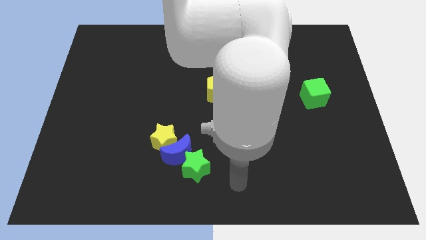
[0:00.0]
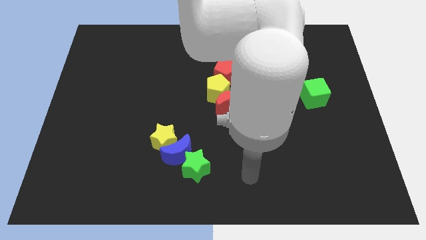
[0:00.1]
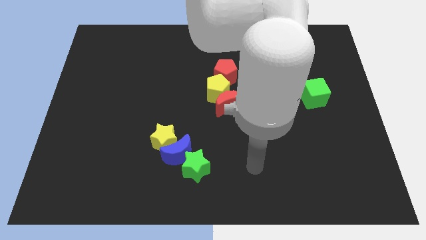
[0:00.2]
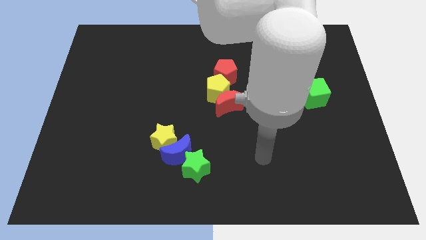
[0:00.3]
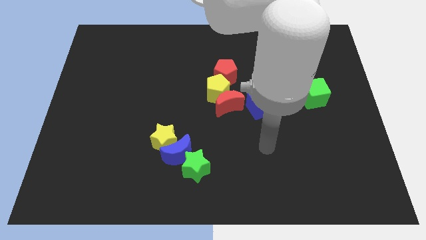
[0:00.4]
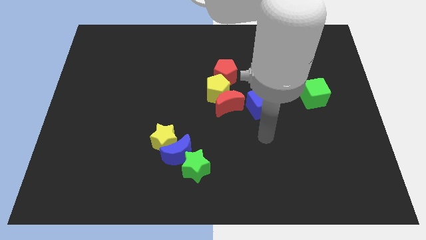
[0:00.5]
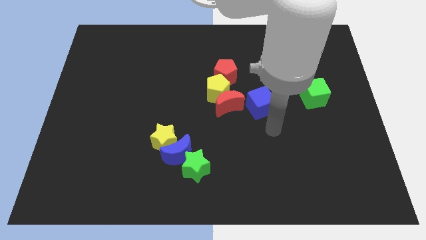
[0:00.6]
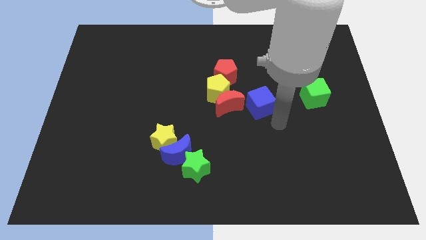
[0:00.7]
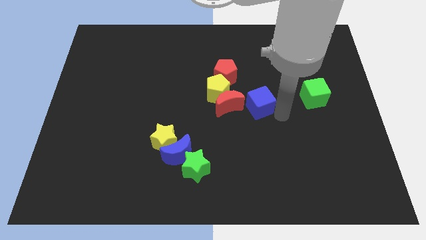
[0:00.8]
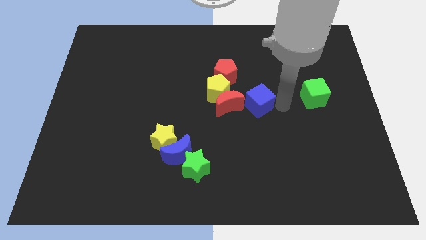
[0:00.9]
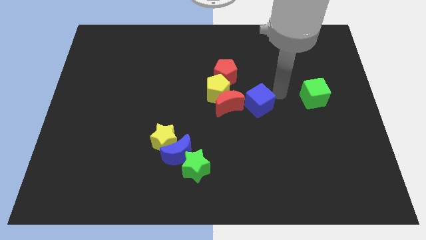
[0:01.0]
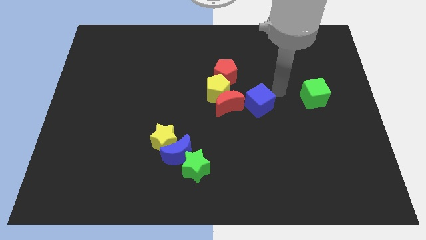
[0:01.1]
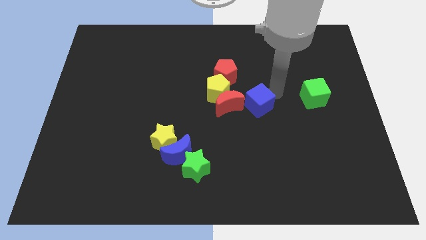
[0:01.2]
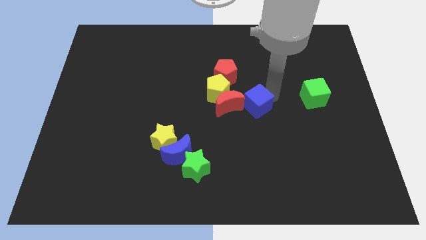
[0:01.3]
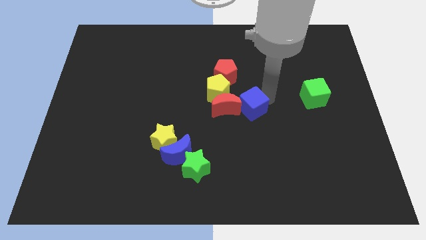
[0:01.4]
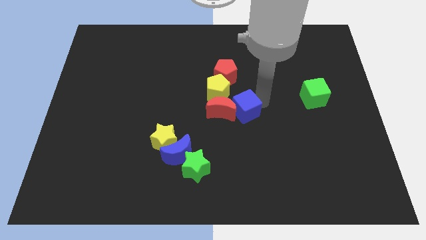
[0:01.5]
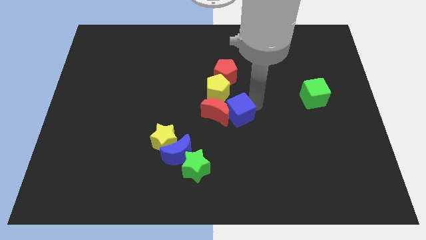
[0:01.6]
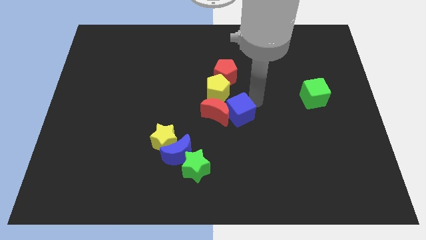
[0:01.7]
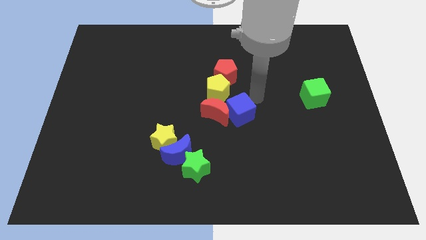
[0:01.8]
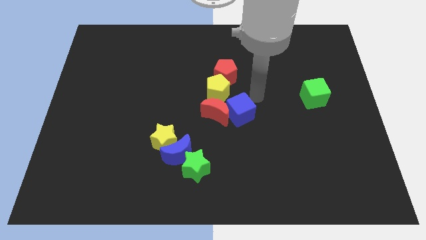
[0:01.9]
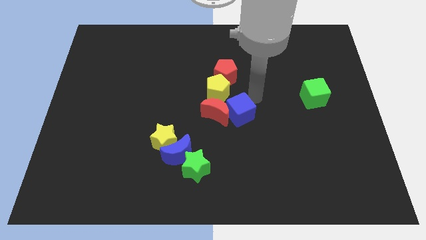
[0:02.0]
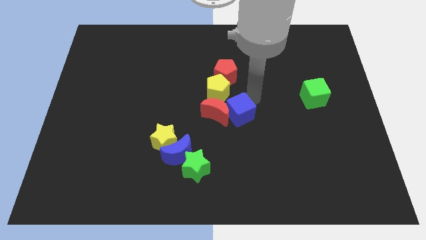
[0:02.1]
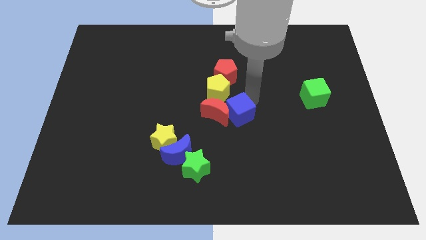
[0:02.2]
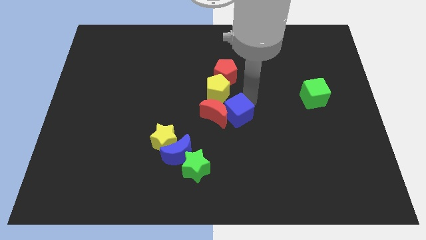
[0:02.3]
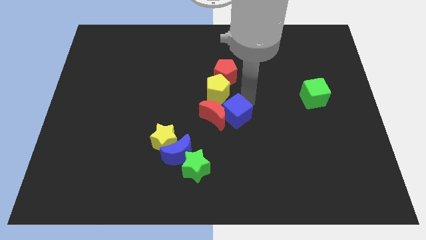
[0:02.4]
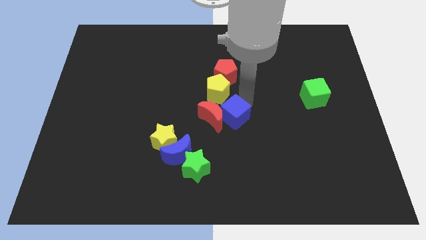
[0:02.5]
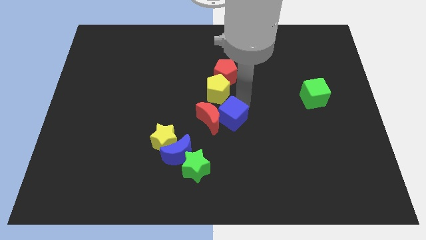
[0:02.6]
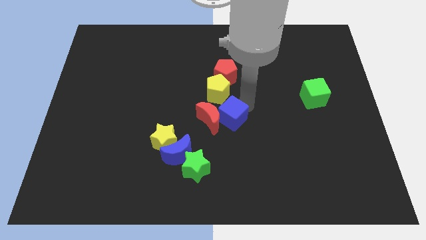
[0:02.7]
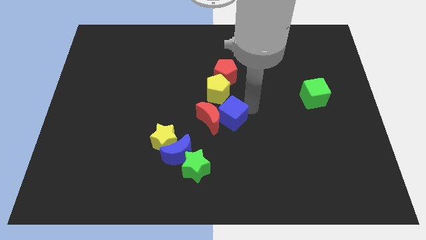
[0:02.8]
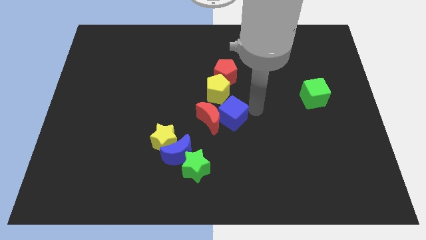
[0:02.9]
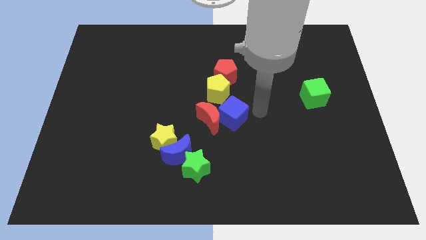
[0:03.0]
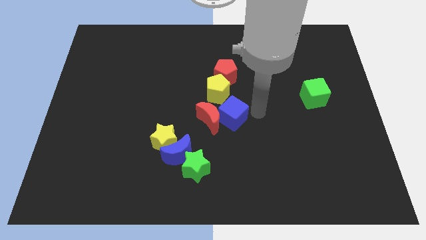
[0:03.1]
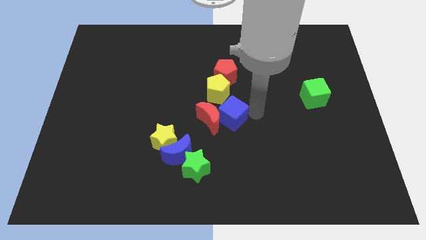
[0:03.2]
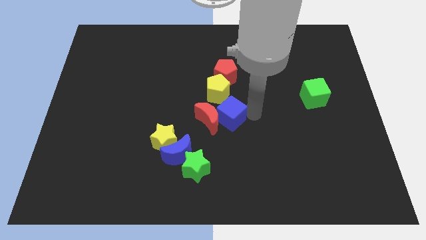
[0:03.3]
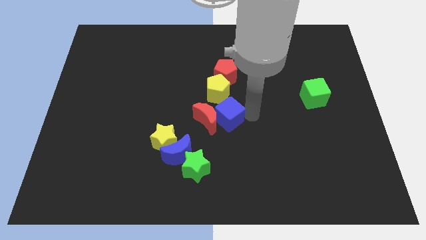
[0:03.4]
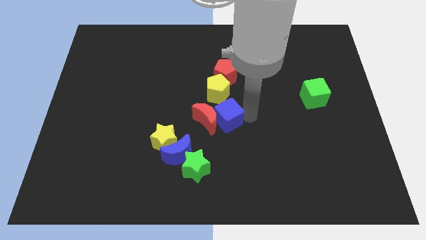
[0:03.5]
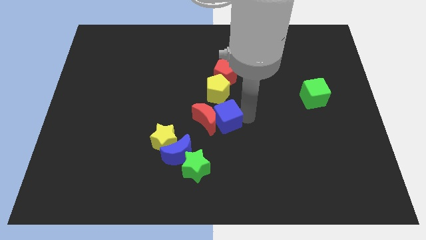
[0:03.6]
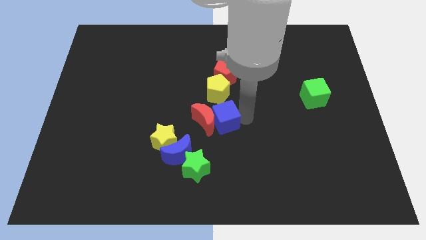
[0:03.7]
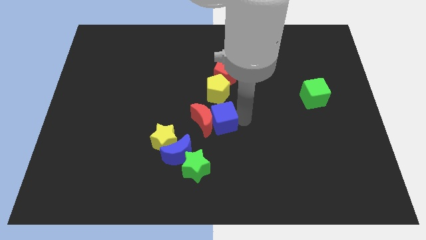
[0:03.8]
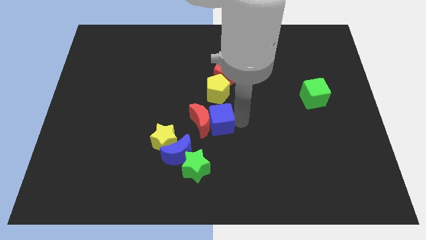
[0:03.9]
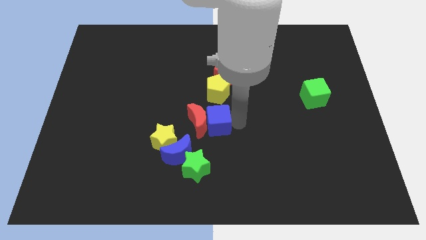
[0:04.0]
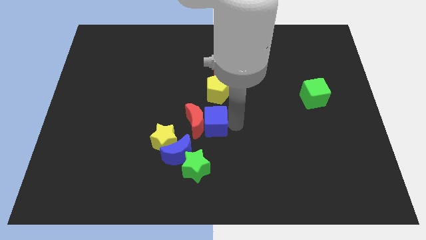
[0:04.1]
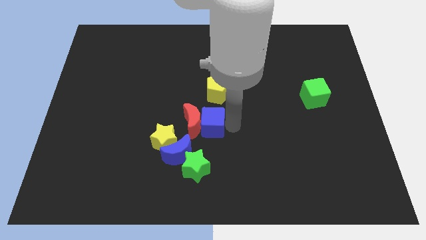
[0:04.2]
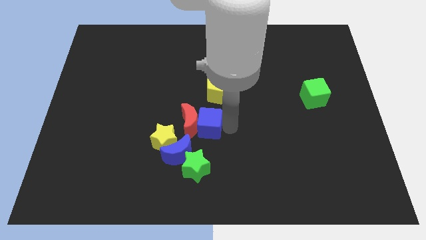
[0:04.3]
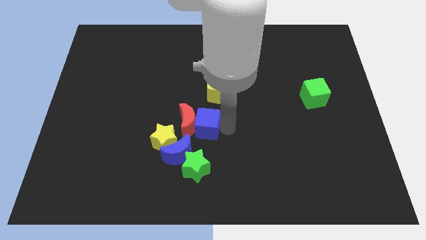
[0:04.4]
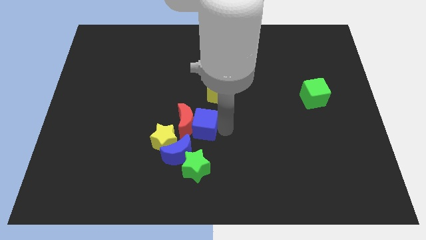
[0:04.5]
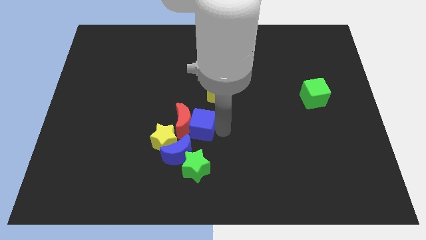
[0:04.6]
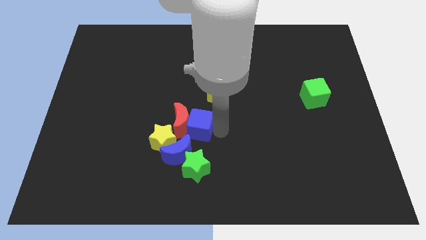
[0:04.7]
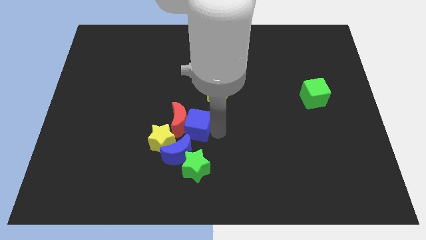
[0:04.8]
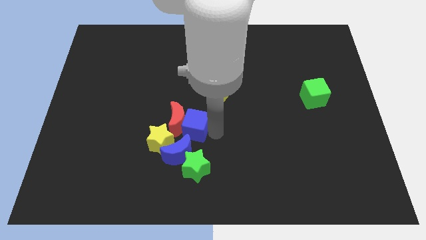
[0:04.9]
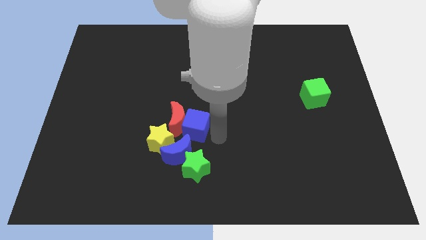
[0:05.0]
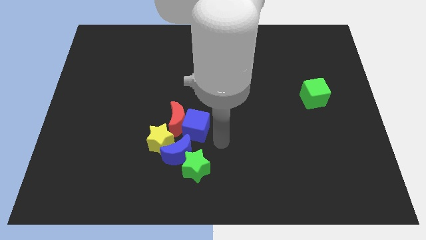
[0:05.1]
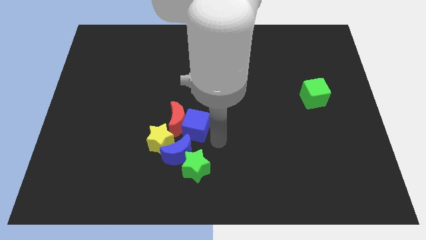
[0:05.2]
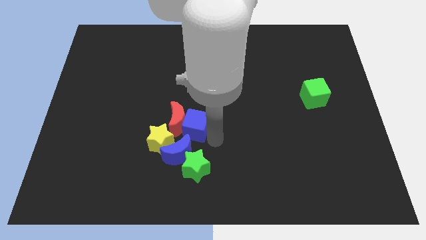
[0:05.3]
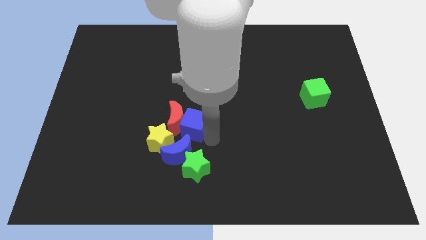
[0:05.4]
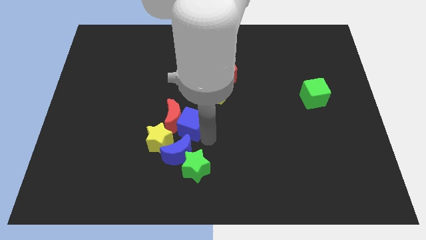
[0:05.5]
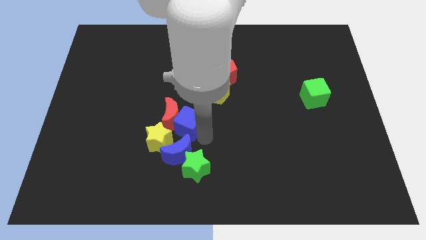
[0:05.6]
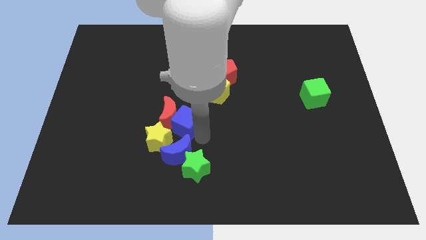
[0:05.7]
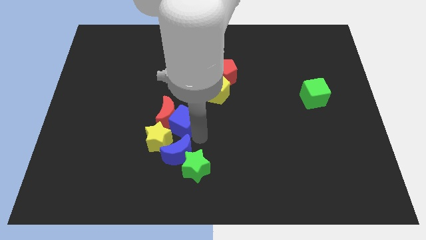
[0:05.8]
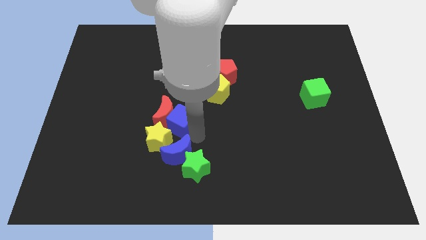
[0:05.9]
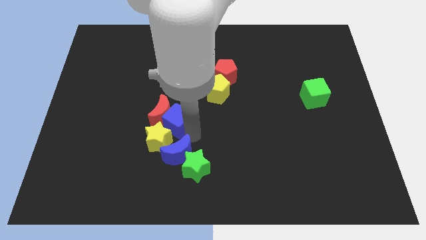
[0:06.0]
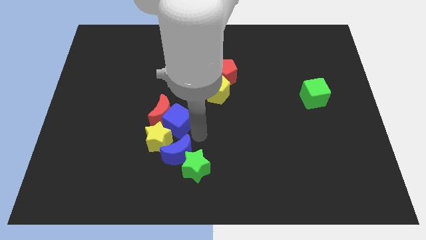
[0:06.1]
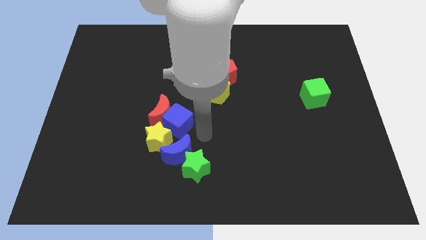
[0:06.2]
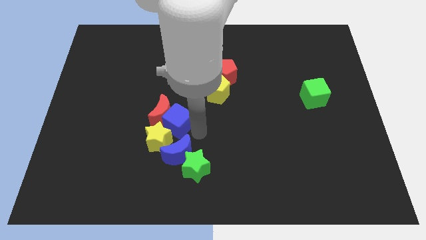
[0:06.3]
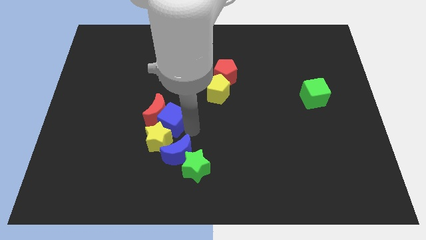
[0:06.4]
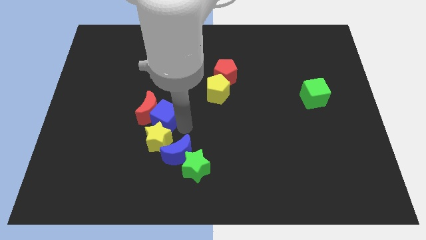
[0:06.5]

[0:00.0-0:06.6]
slide the blue cube left

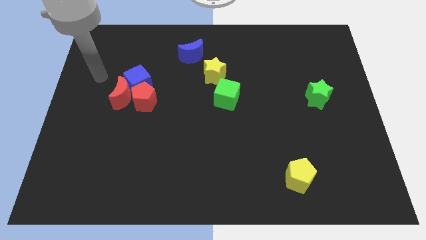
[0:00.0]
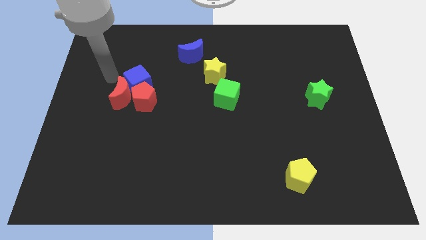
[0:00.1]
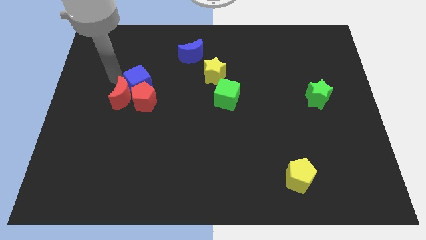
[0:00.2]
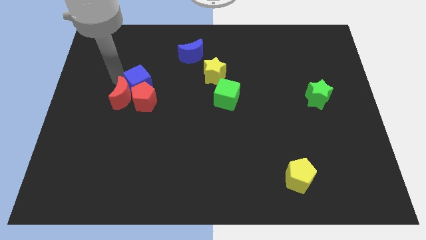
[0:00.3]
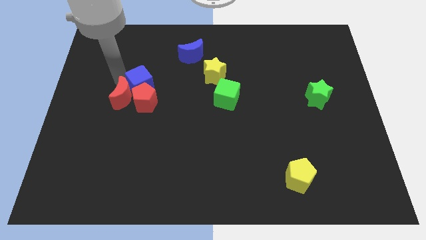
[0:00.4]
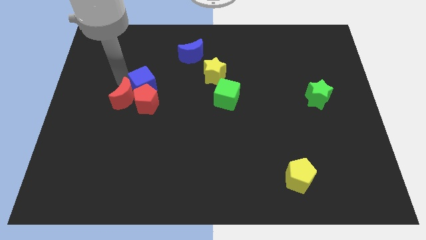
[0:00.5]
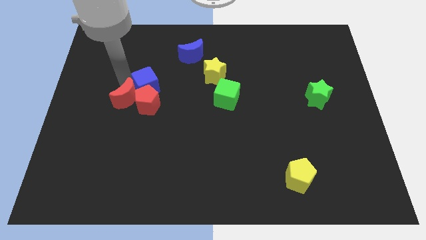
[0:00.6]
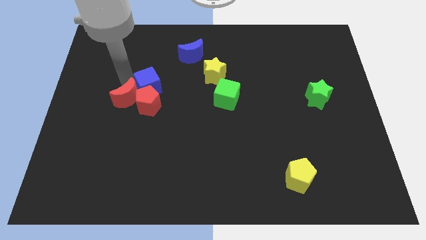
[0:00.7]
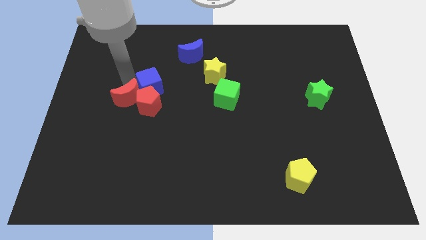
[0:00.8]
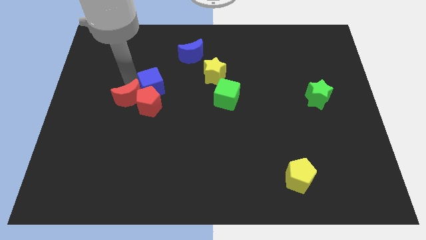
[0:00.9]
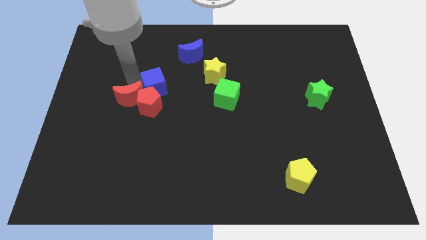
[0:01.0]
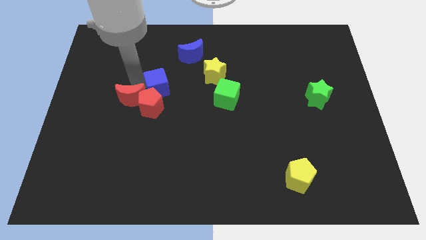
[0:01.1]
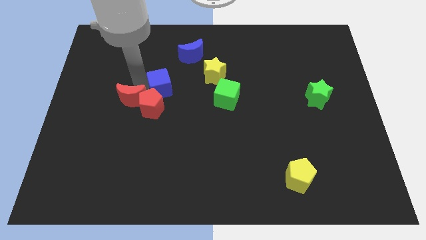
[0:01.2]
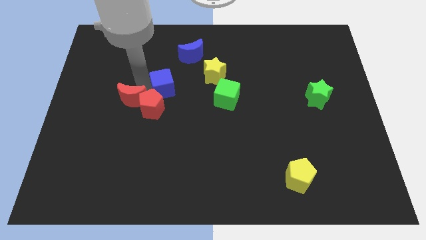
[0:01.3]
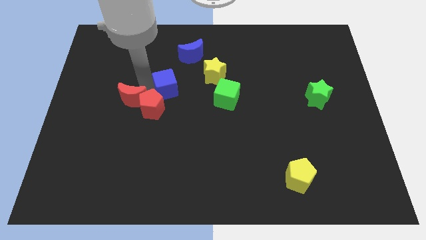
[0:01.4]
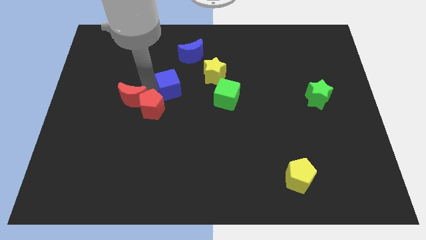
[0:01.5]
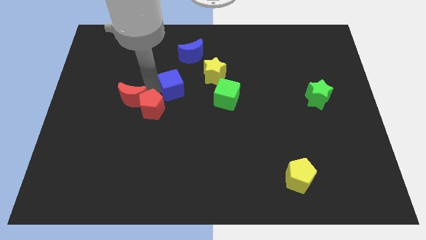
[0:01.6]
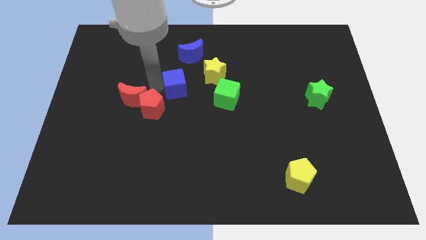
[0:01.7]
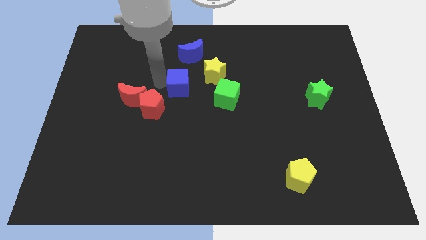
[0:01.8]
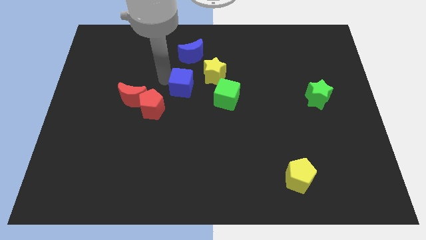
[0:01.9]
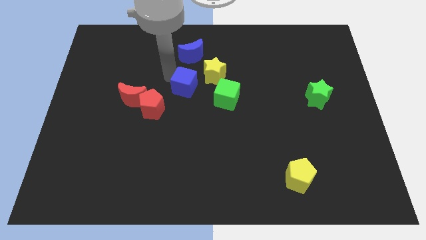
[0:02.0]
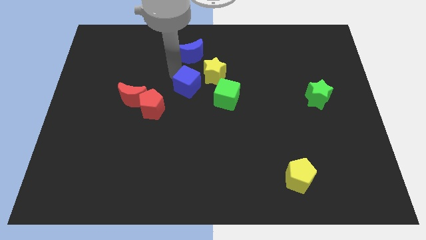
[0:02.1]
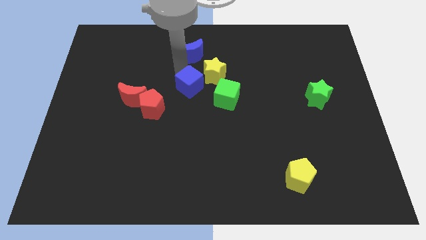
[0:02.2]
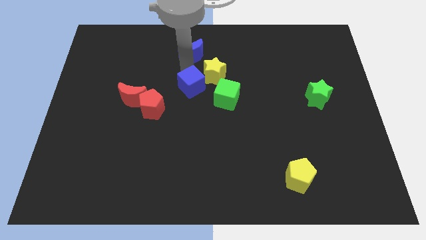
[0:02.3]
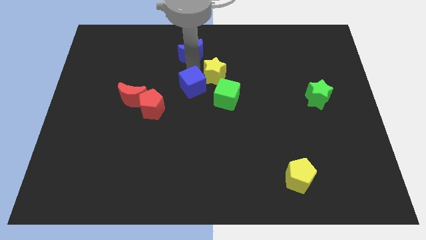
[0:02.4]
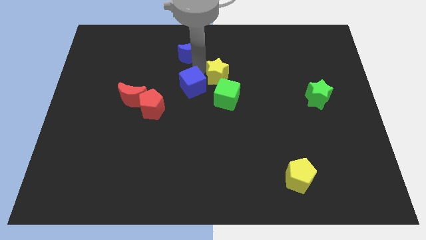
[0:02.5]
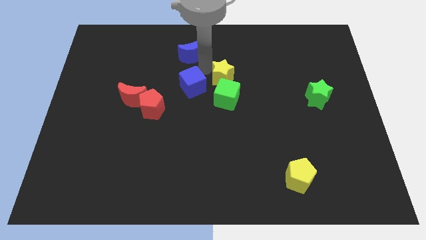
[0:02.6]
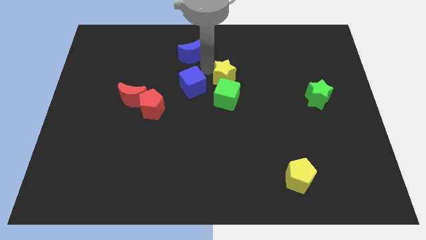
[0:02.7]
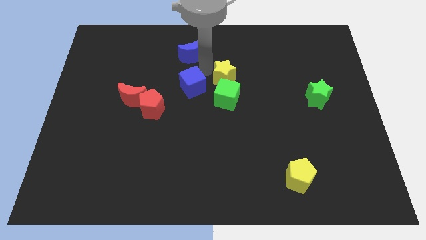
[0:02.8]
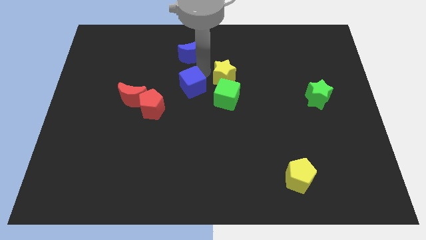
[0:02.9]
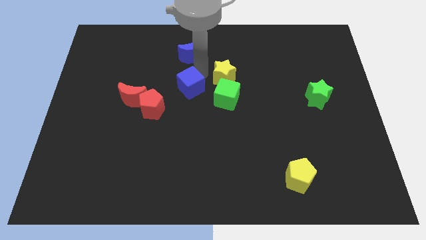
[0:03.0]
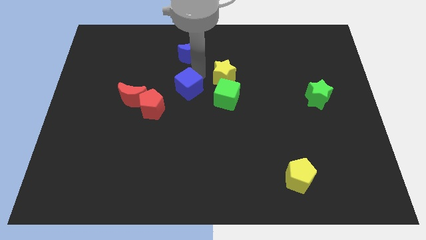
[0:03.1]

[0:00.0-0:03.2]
push the blue cube somewhat downwards and then to the right
